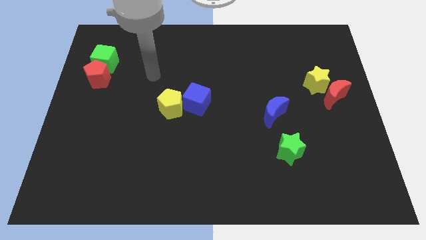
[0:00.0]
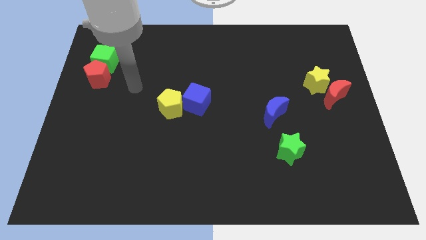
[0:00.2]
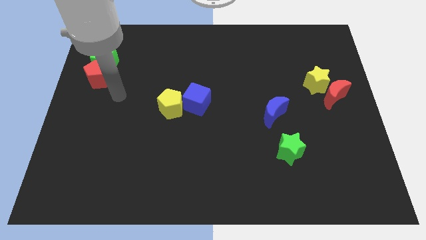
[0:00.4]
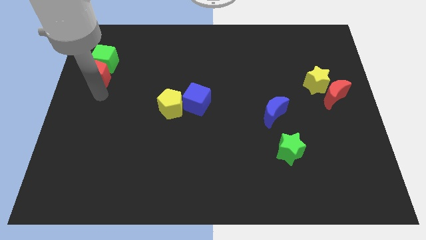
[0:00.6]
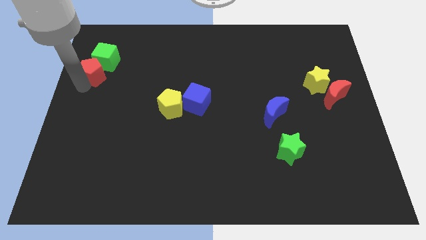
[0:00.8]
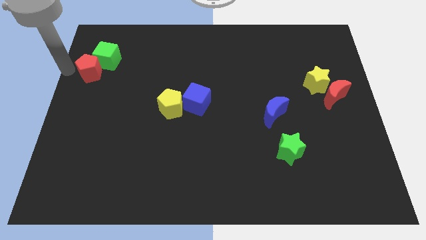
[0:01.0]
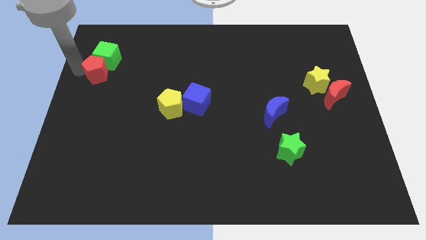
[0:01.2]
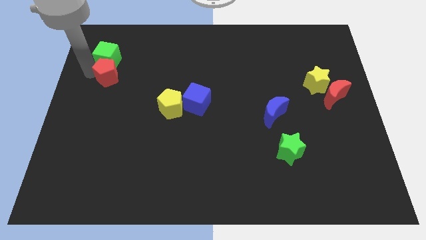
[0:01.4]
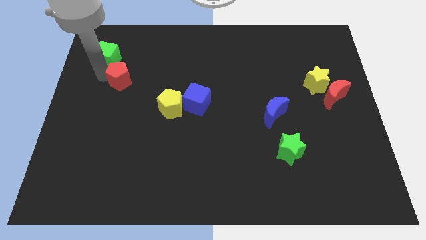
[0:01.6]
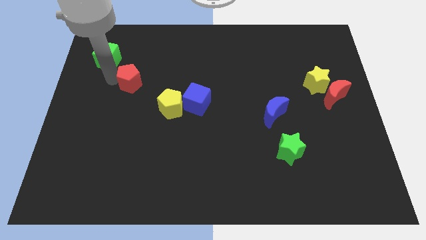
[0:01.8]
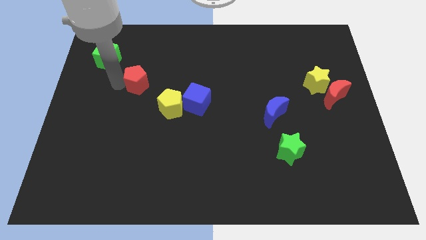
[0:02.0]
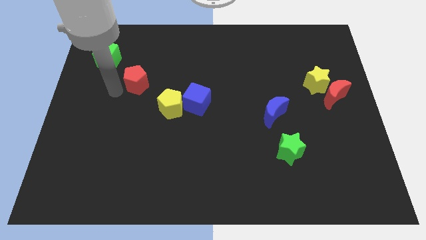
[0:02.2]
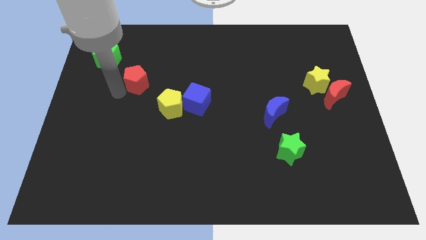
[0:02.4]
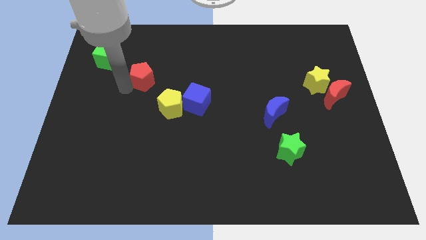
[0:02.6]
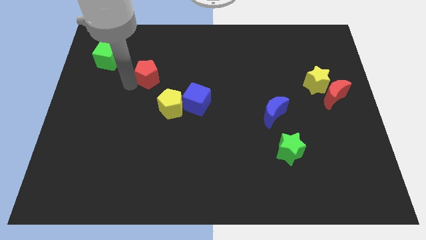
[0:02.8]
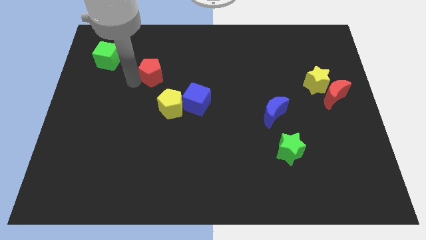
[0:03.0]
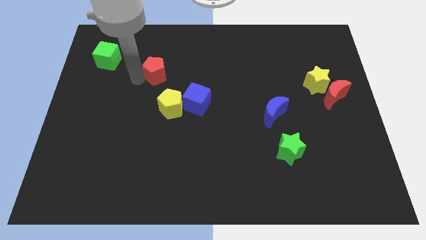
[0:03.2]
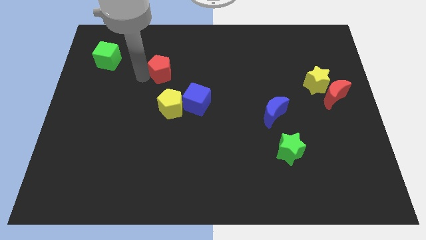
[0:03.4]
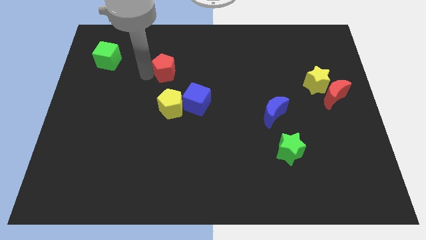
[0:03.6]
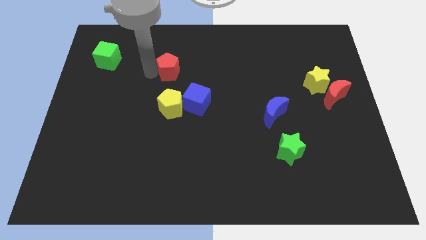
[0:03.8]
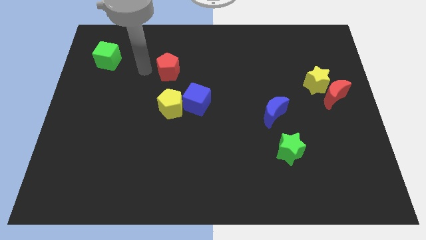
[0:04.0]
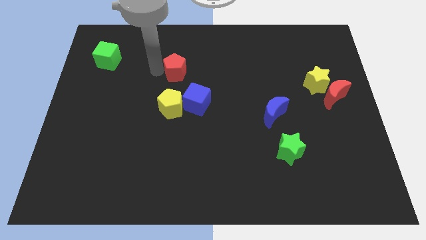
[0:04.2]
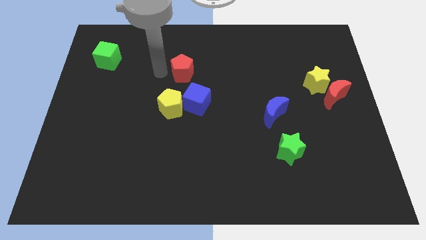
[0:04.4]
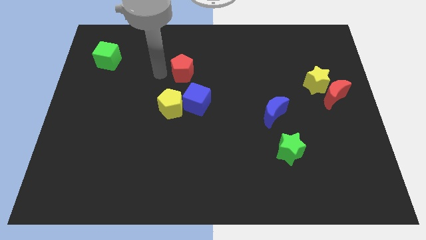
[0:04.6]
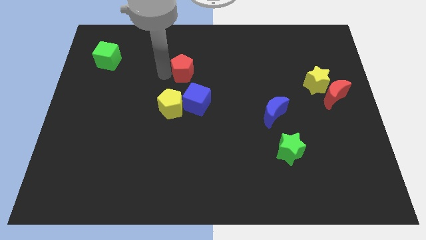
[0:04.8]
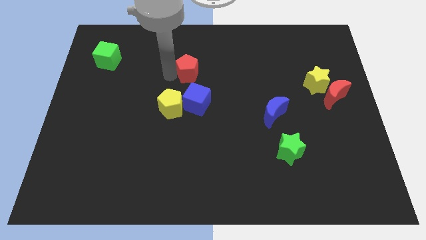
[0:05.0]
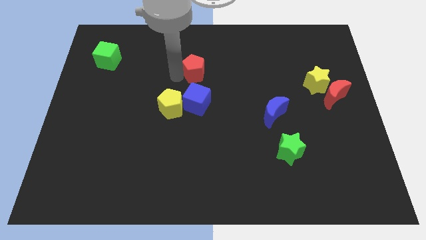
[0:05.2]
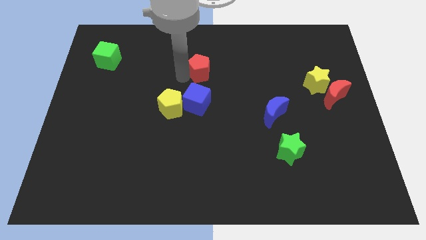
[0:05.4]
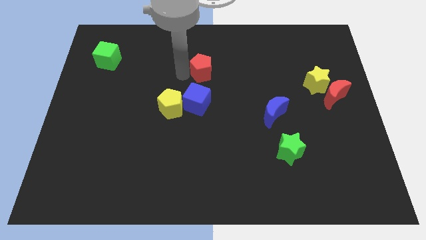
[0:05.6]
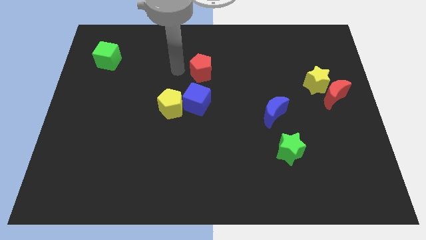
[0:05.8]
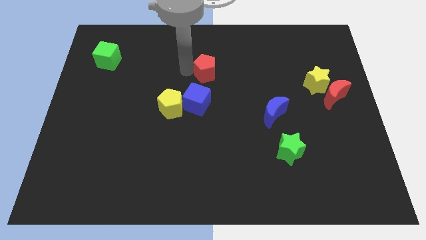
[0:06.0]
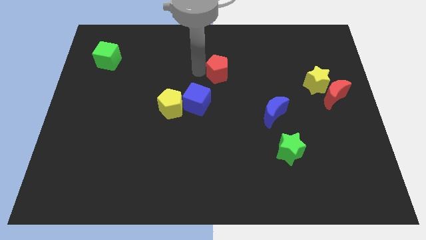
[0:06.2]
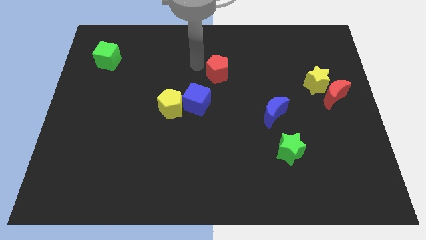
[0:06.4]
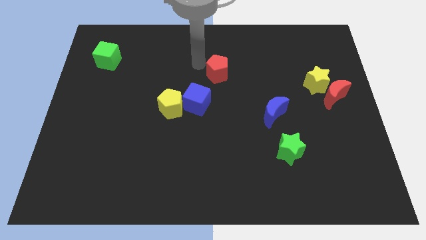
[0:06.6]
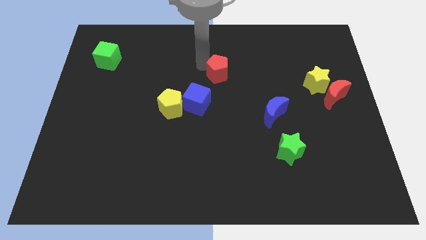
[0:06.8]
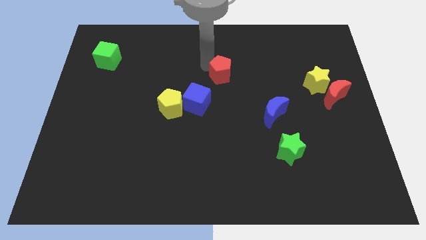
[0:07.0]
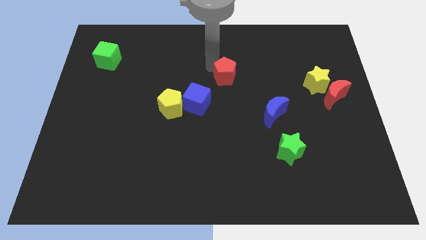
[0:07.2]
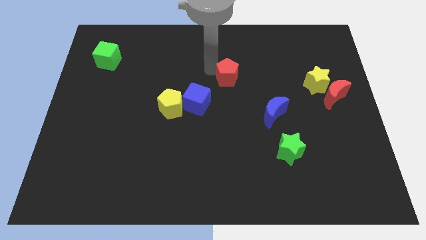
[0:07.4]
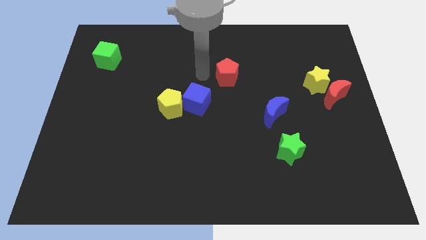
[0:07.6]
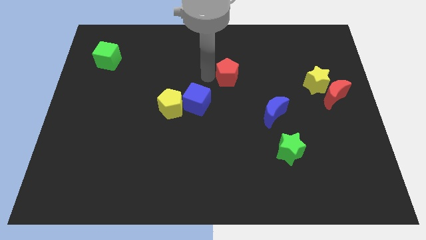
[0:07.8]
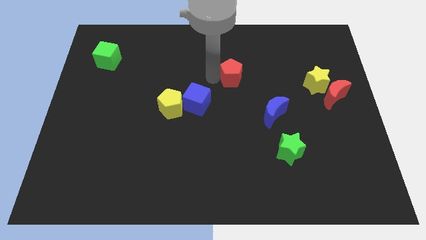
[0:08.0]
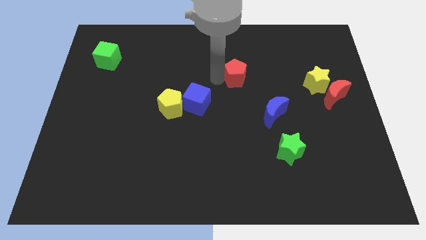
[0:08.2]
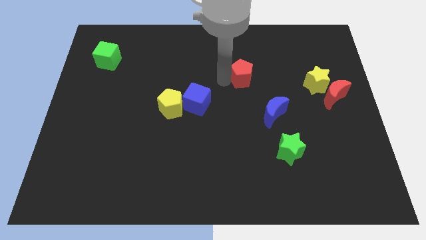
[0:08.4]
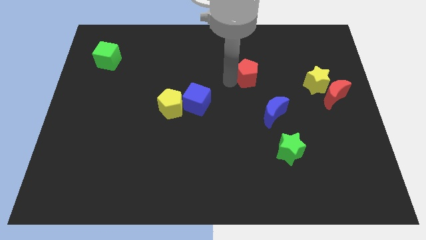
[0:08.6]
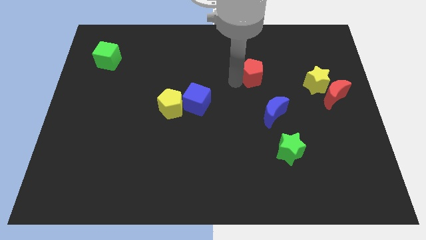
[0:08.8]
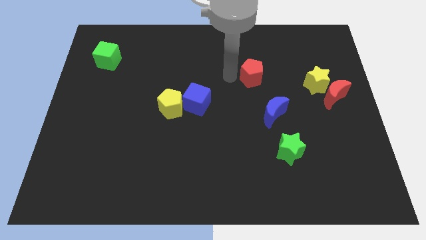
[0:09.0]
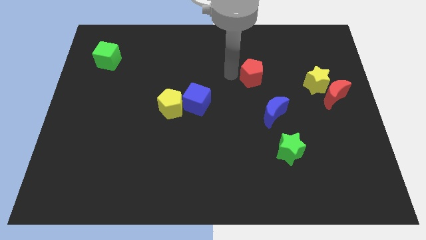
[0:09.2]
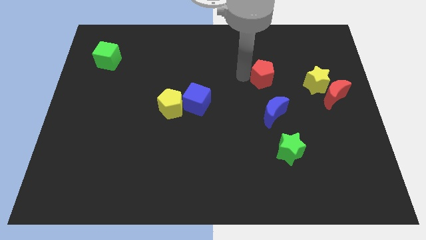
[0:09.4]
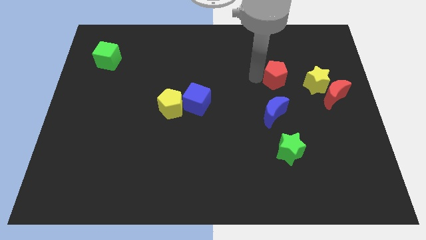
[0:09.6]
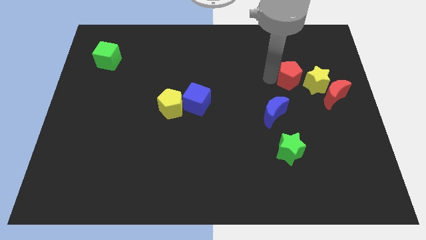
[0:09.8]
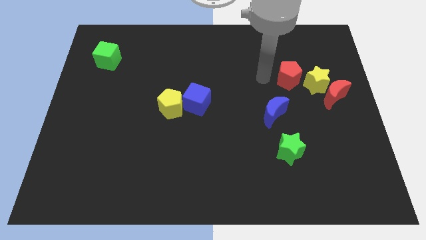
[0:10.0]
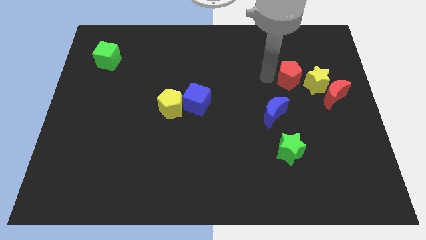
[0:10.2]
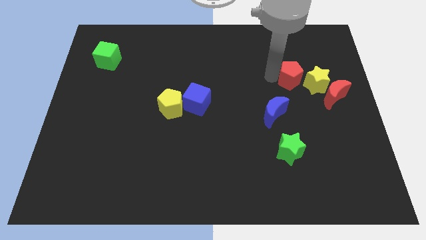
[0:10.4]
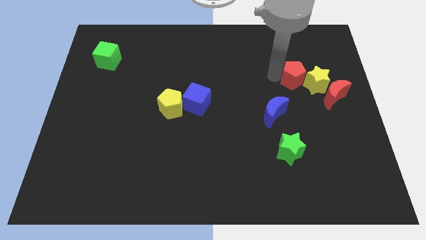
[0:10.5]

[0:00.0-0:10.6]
move the red pentagon close to the yellow star

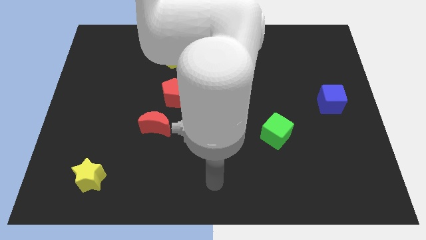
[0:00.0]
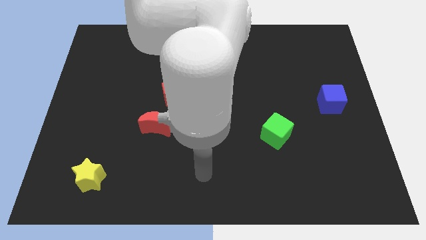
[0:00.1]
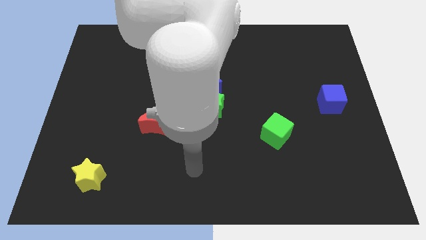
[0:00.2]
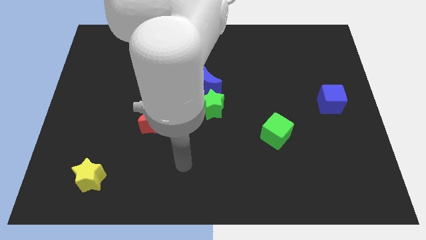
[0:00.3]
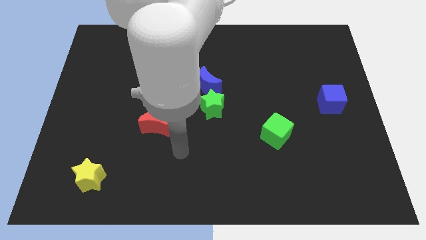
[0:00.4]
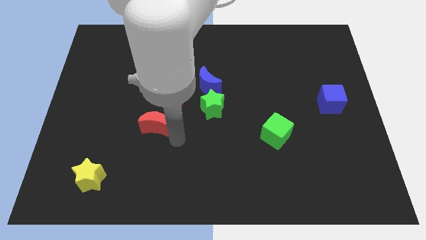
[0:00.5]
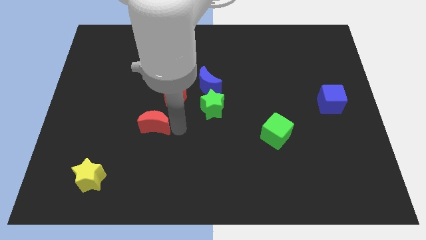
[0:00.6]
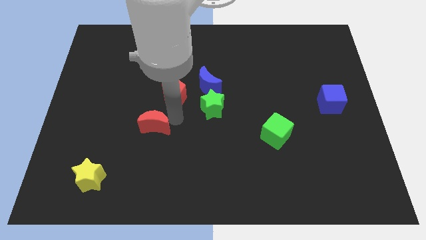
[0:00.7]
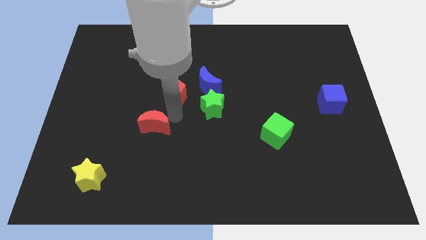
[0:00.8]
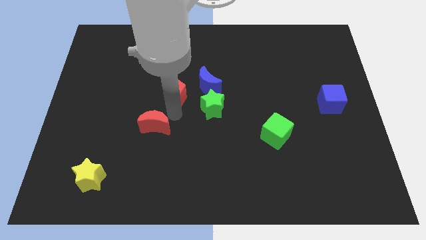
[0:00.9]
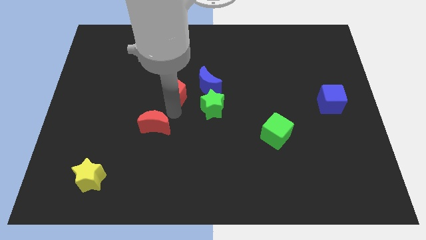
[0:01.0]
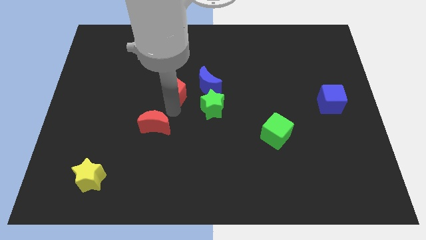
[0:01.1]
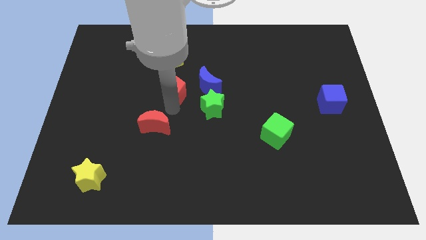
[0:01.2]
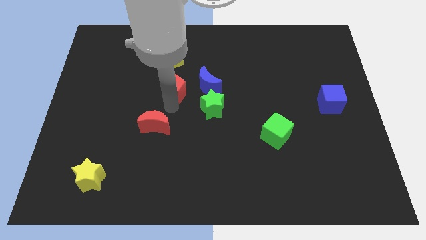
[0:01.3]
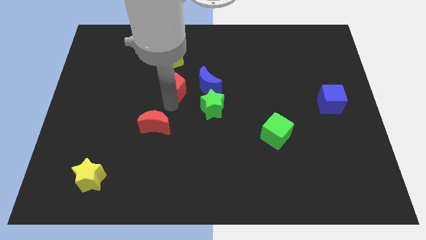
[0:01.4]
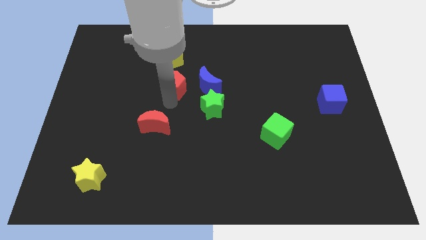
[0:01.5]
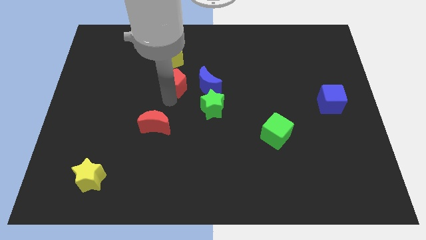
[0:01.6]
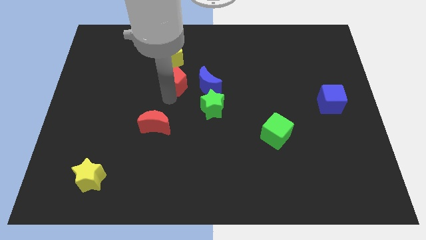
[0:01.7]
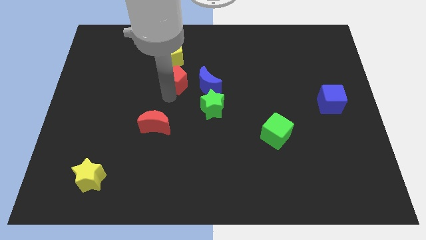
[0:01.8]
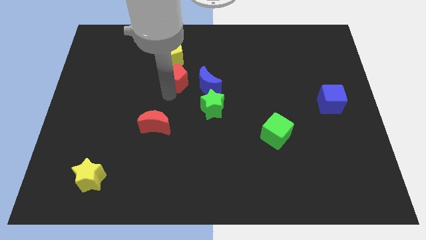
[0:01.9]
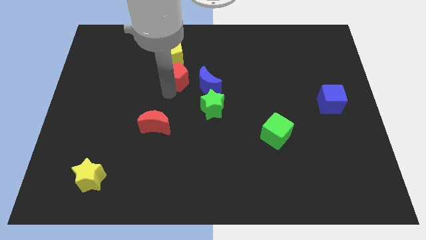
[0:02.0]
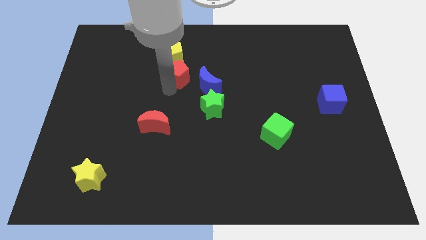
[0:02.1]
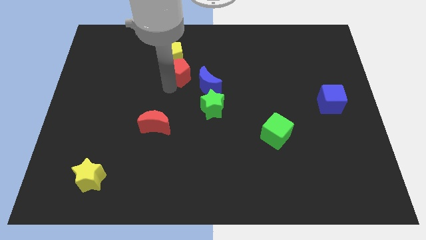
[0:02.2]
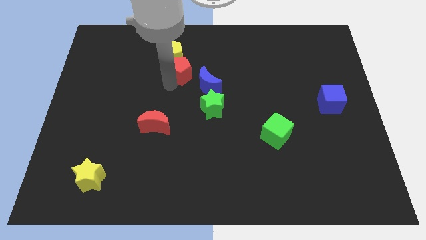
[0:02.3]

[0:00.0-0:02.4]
move the red pentagon towards the yellow pentagon
